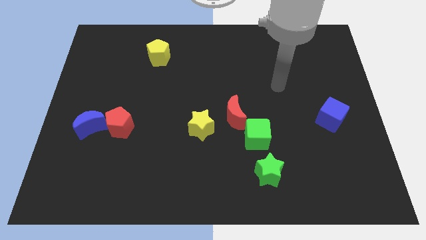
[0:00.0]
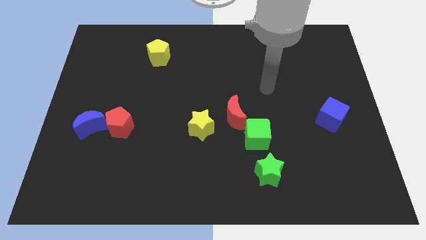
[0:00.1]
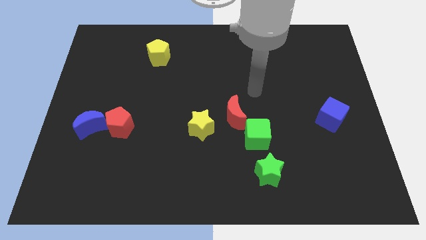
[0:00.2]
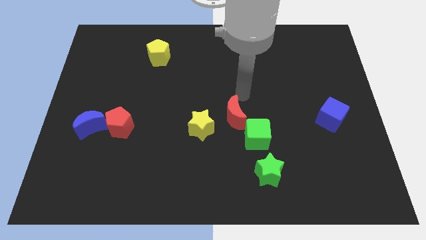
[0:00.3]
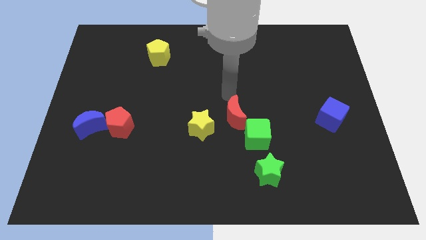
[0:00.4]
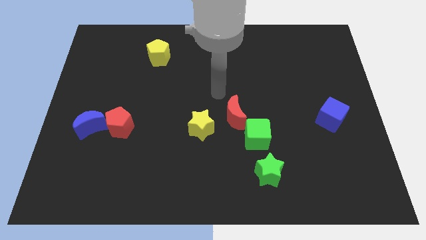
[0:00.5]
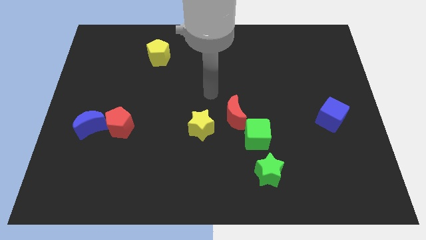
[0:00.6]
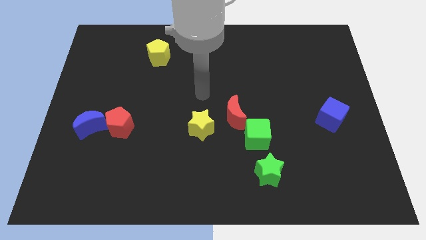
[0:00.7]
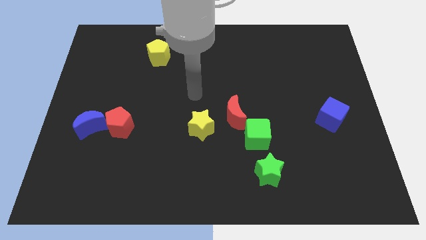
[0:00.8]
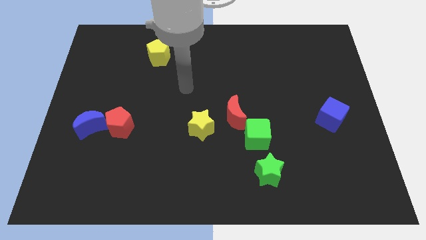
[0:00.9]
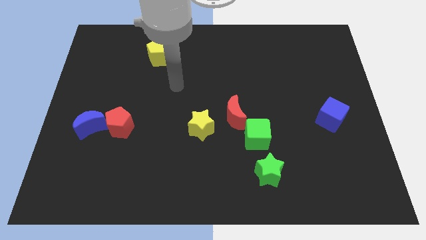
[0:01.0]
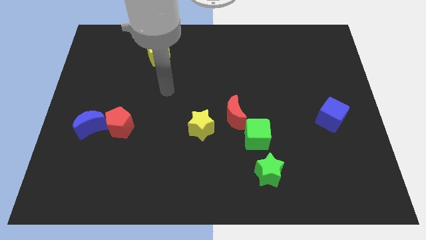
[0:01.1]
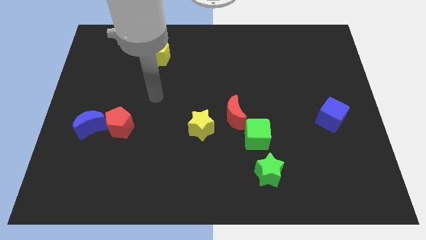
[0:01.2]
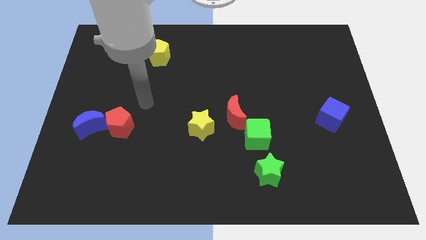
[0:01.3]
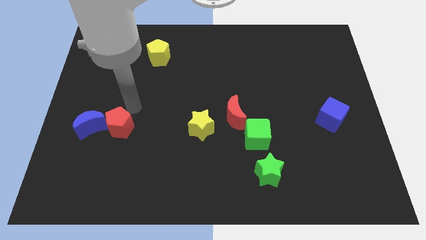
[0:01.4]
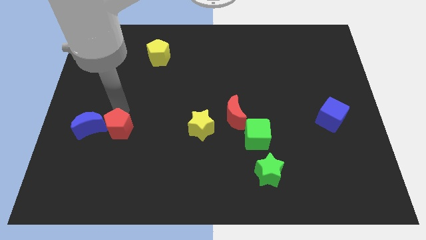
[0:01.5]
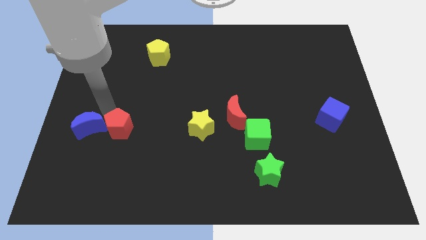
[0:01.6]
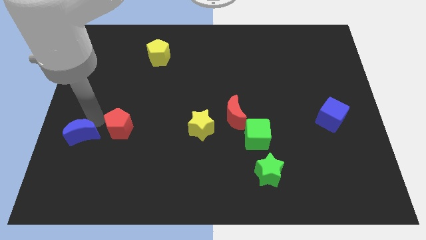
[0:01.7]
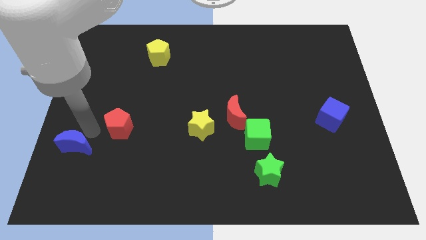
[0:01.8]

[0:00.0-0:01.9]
pull the red pentagon apart from the blue moon

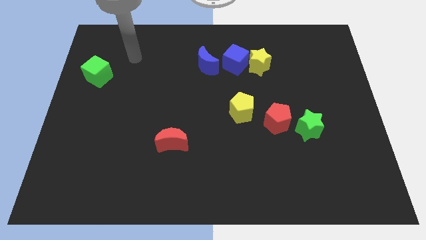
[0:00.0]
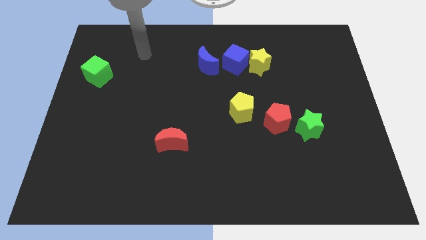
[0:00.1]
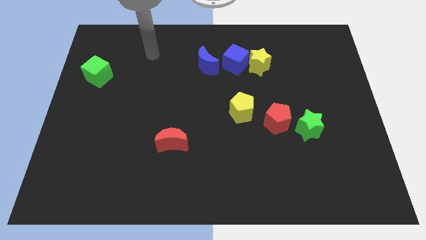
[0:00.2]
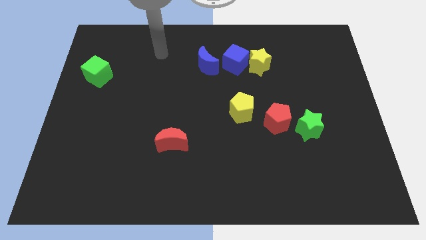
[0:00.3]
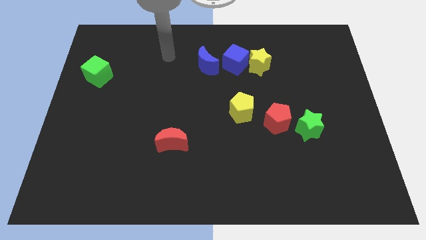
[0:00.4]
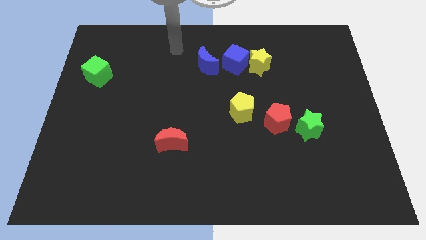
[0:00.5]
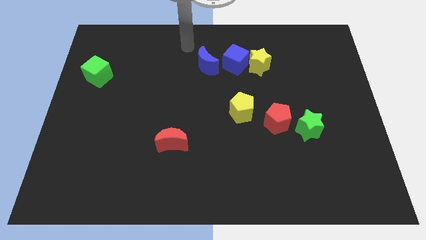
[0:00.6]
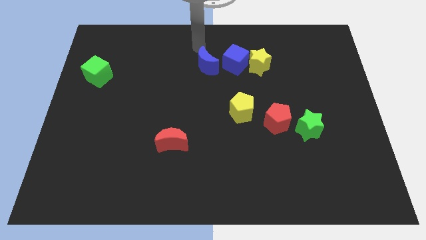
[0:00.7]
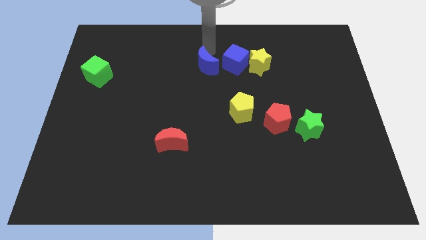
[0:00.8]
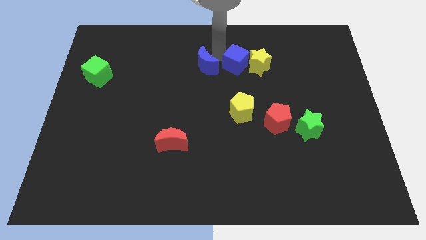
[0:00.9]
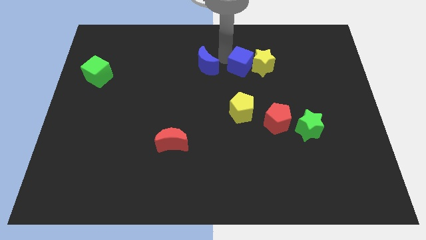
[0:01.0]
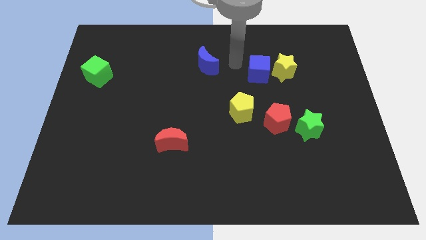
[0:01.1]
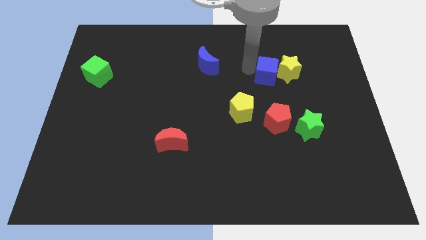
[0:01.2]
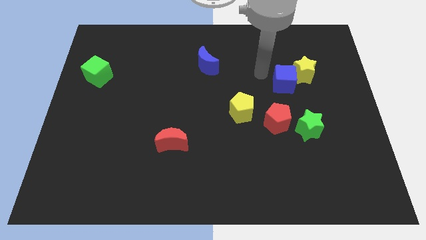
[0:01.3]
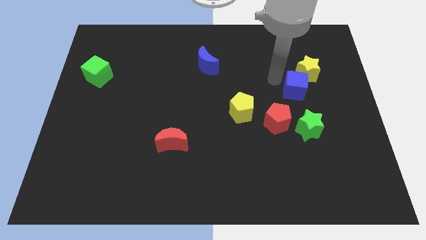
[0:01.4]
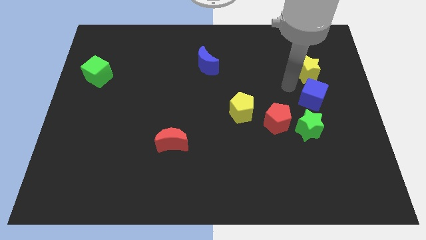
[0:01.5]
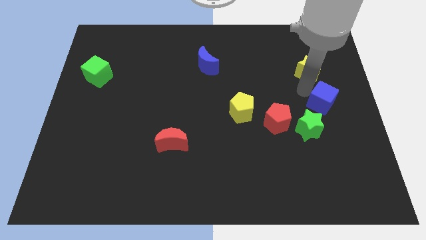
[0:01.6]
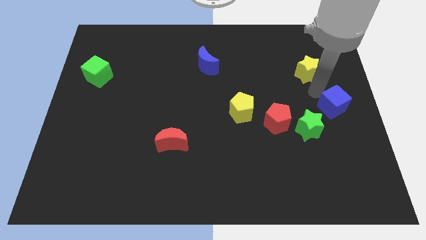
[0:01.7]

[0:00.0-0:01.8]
move the yellow star away from the blue cube

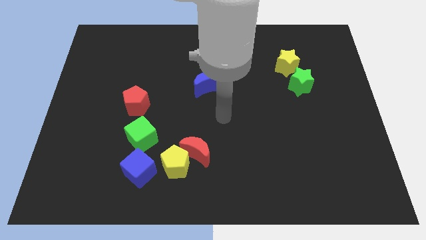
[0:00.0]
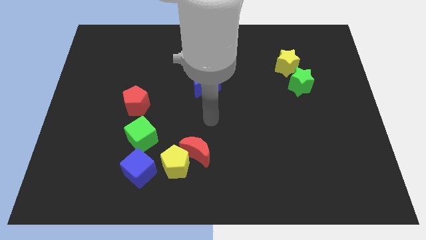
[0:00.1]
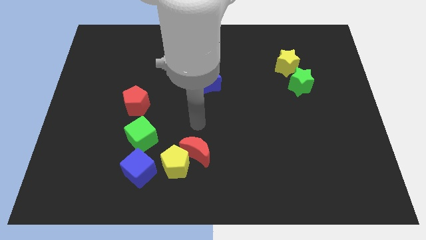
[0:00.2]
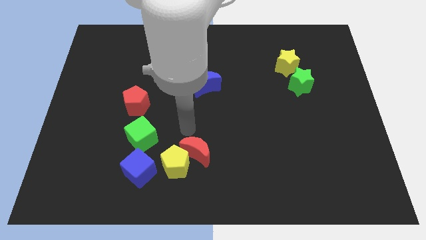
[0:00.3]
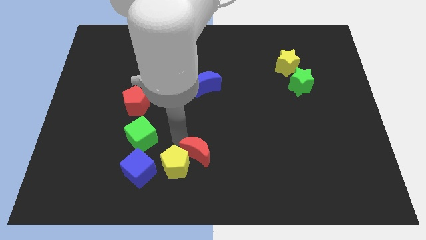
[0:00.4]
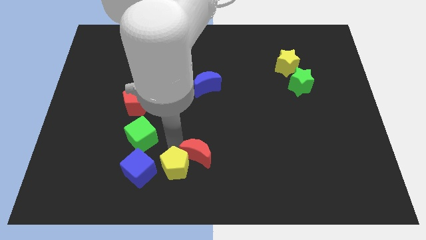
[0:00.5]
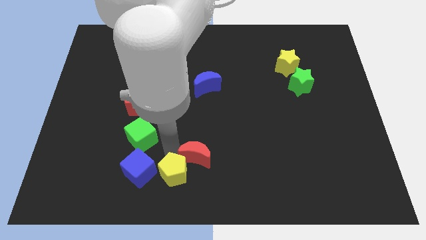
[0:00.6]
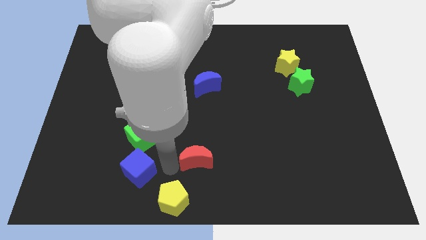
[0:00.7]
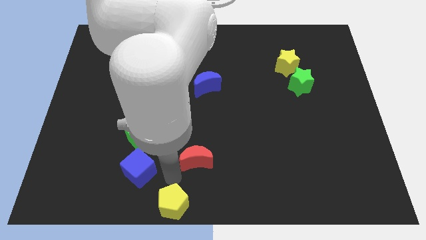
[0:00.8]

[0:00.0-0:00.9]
separate the red moon from the yellow pentagon

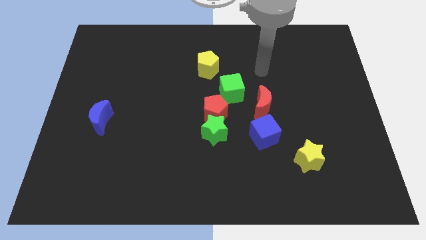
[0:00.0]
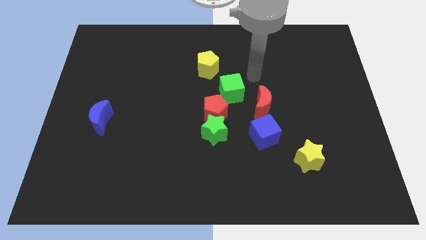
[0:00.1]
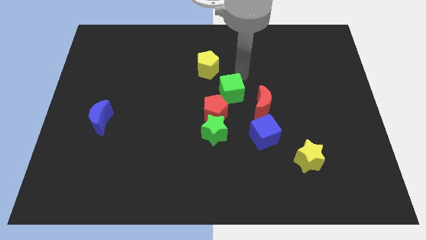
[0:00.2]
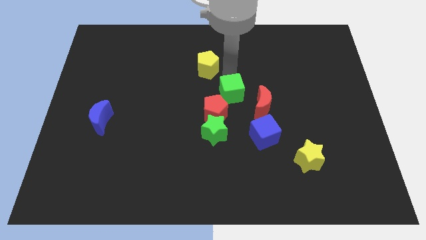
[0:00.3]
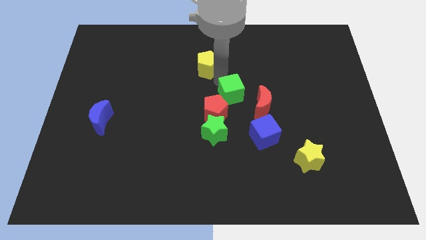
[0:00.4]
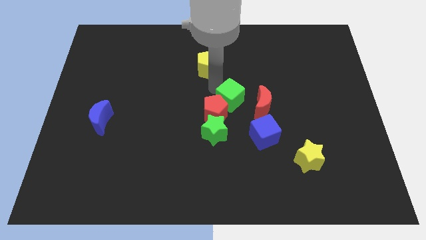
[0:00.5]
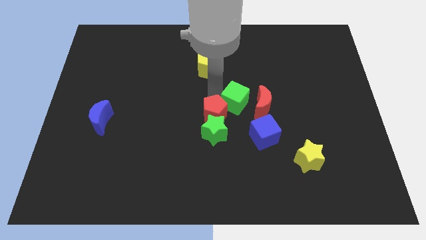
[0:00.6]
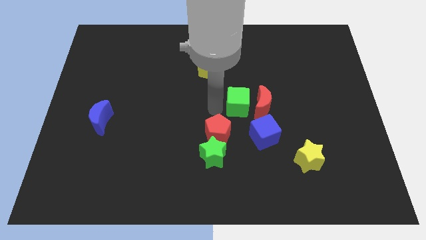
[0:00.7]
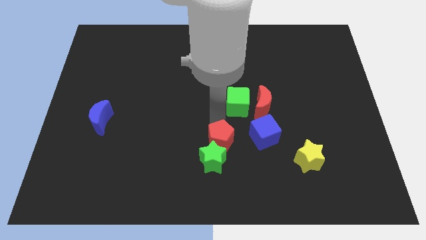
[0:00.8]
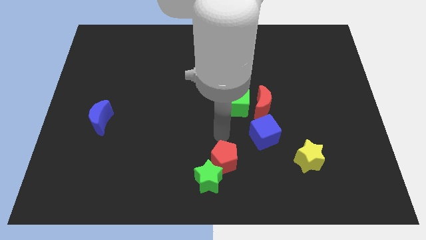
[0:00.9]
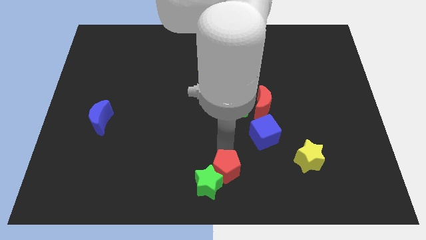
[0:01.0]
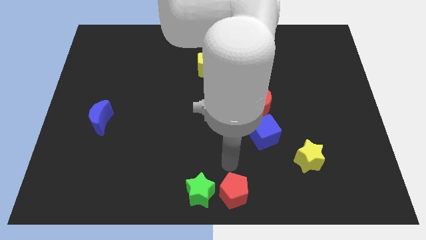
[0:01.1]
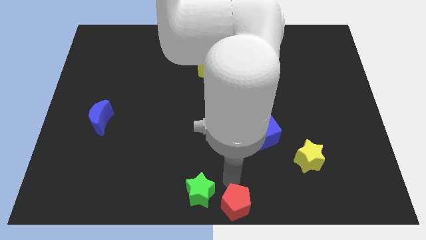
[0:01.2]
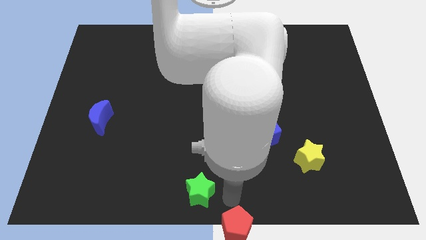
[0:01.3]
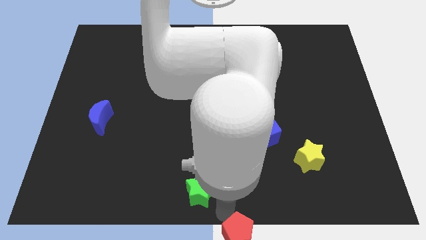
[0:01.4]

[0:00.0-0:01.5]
separate the green star from the red pentagon

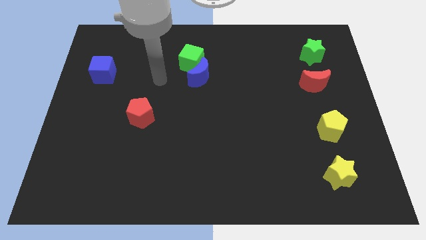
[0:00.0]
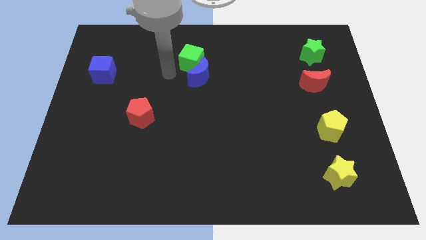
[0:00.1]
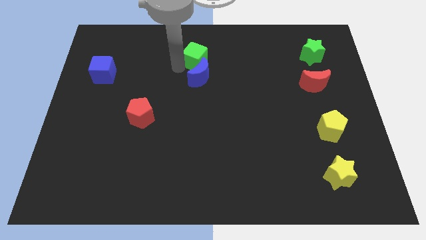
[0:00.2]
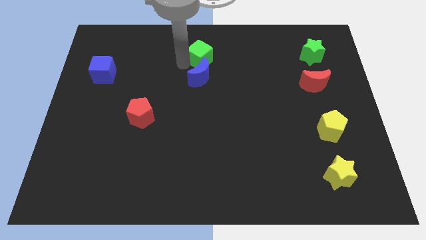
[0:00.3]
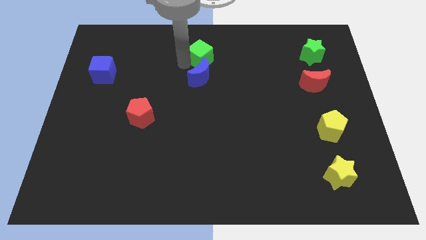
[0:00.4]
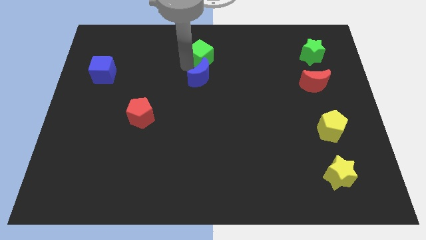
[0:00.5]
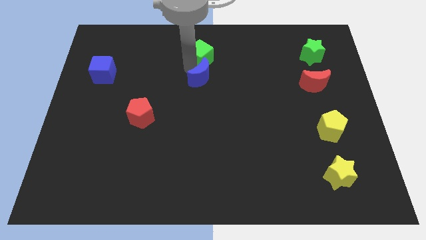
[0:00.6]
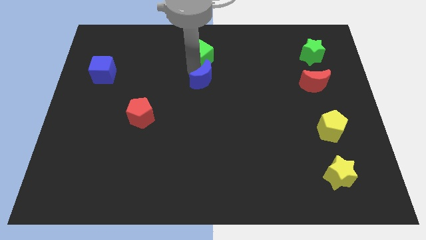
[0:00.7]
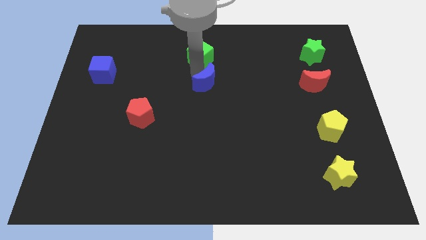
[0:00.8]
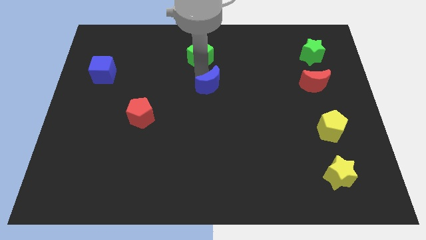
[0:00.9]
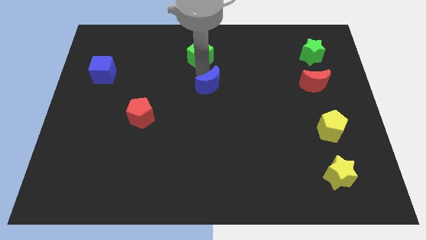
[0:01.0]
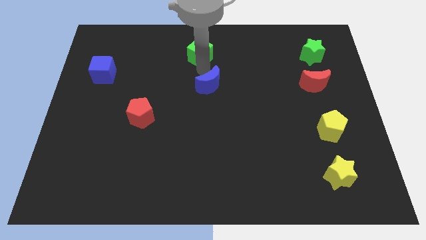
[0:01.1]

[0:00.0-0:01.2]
move the blue moon away from the green cube

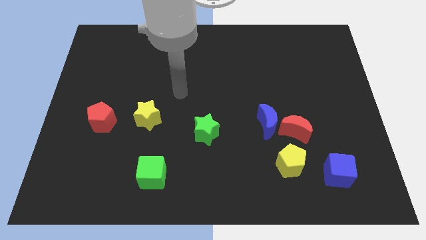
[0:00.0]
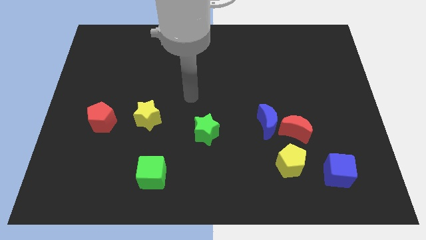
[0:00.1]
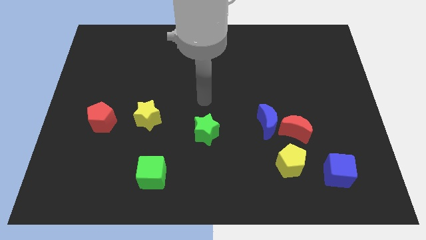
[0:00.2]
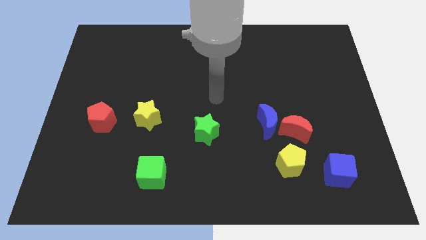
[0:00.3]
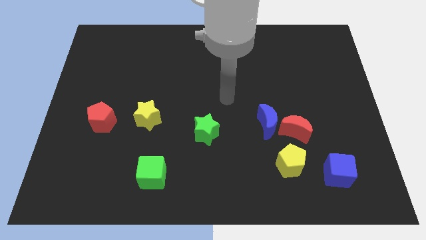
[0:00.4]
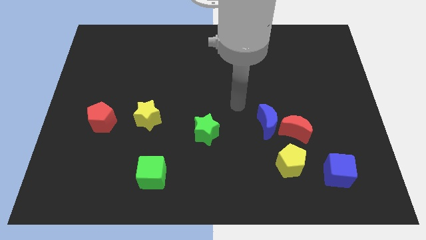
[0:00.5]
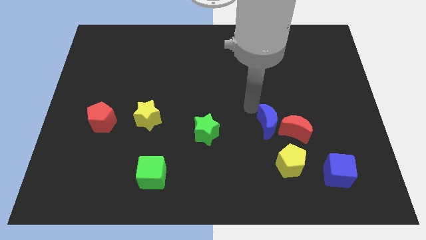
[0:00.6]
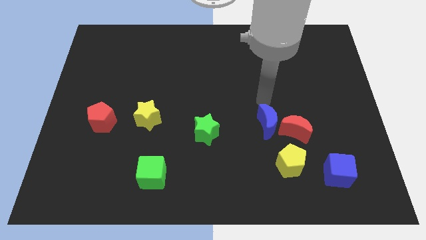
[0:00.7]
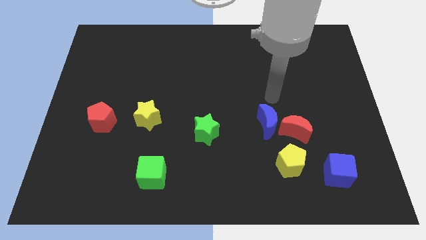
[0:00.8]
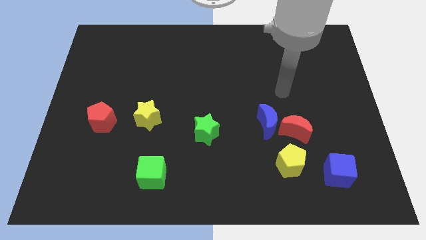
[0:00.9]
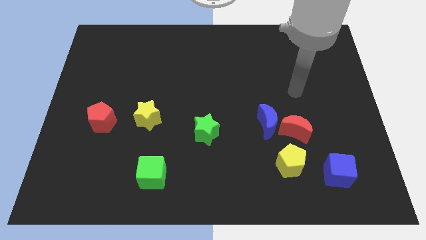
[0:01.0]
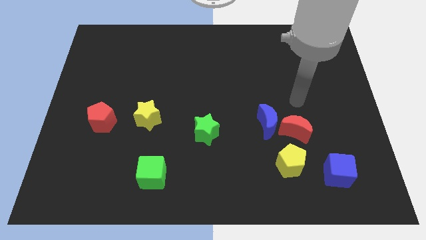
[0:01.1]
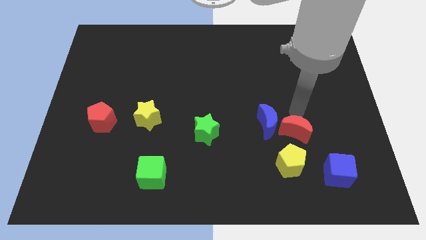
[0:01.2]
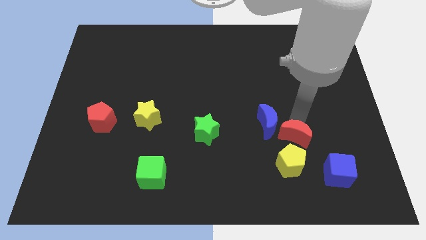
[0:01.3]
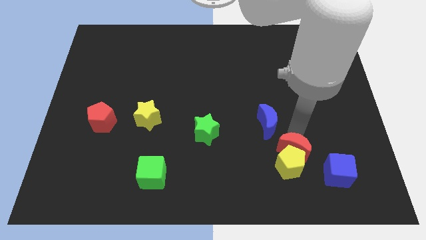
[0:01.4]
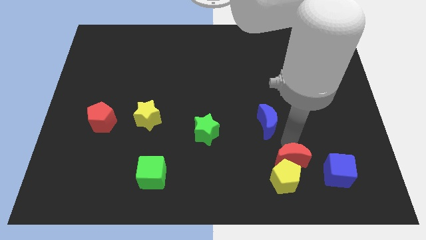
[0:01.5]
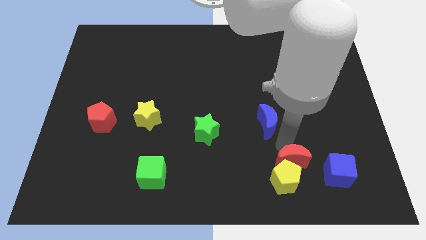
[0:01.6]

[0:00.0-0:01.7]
separate the blue moon from the red moon

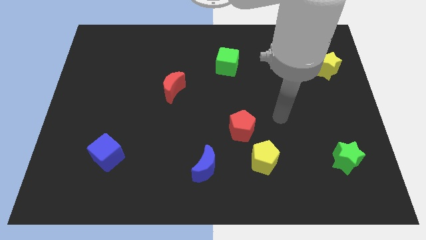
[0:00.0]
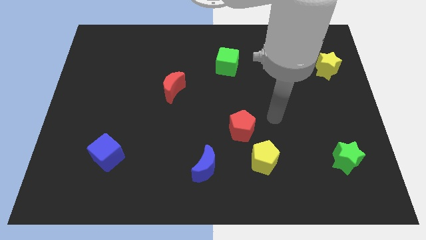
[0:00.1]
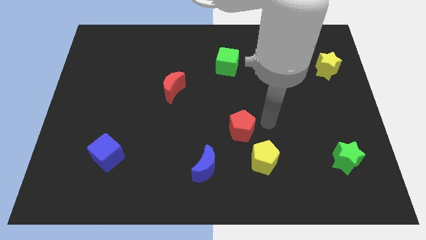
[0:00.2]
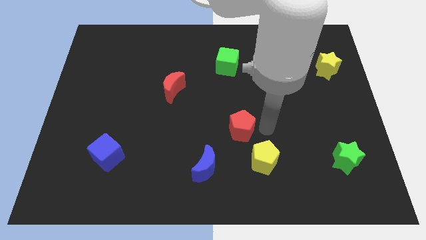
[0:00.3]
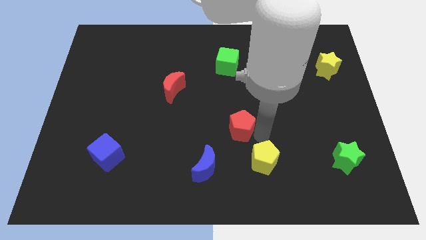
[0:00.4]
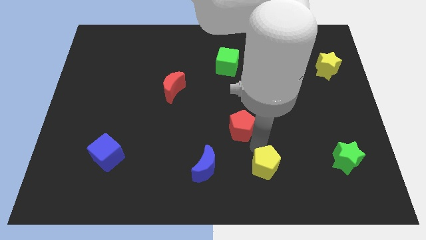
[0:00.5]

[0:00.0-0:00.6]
pull the red pentagon apart from the yellow pentagon
